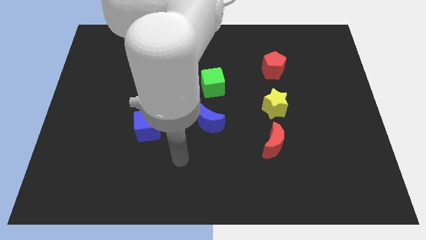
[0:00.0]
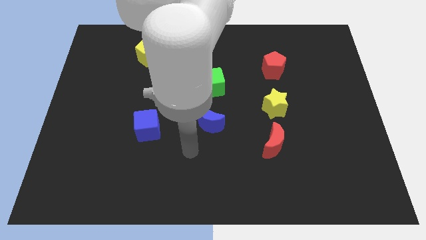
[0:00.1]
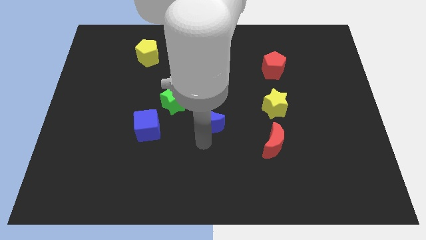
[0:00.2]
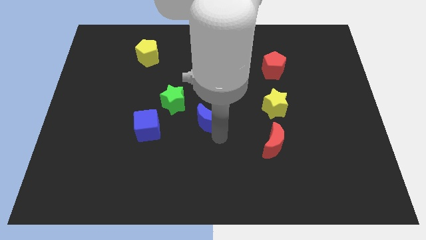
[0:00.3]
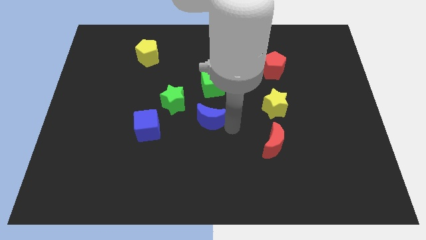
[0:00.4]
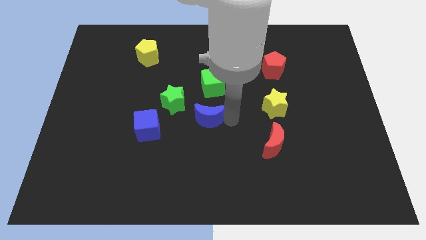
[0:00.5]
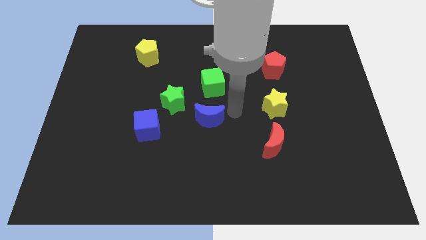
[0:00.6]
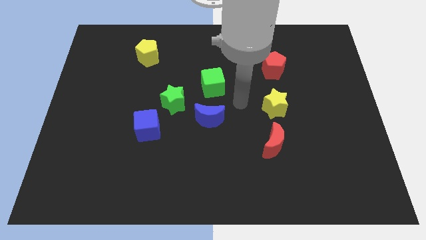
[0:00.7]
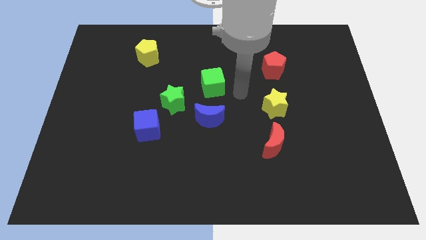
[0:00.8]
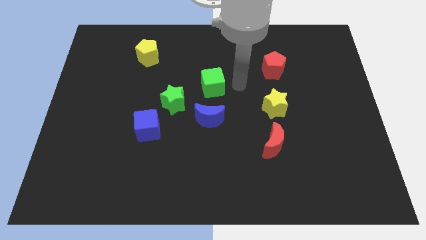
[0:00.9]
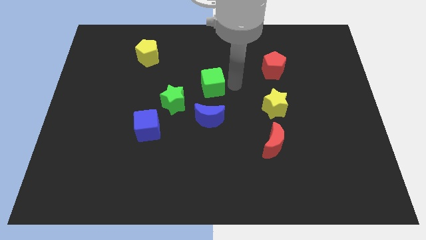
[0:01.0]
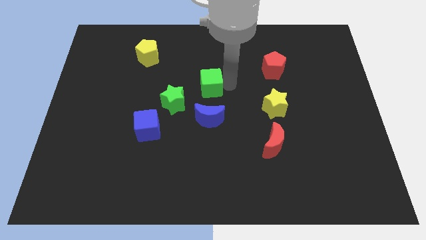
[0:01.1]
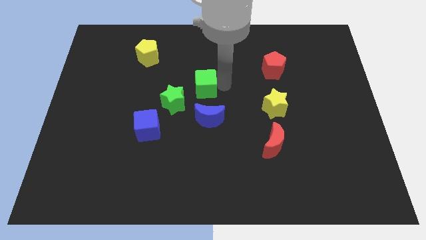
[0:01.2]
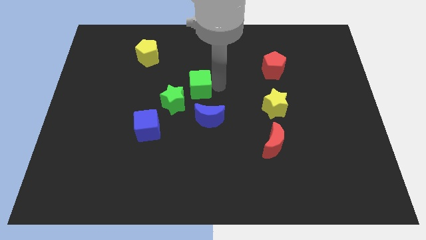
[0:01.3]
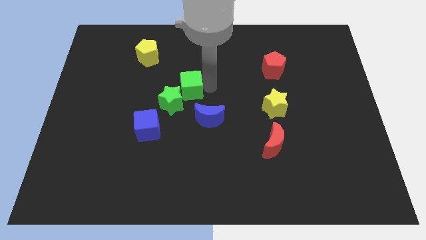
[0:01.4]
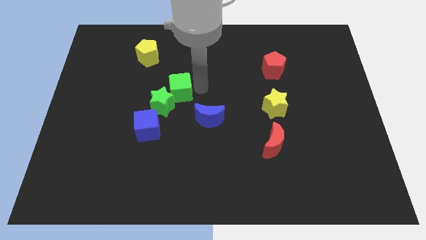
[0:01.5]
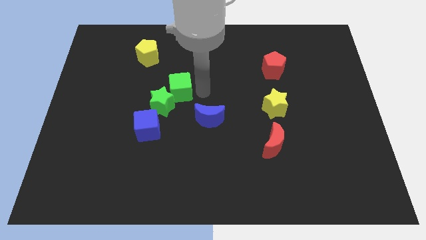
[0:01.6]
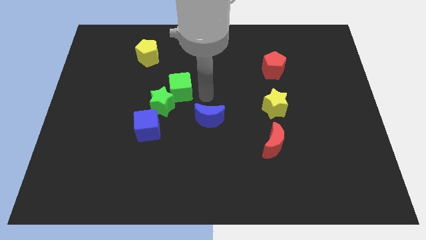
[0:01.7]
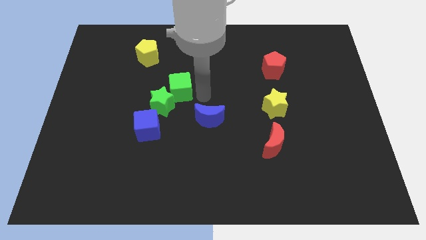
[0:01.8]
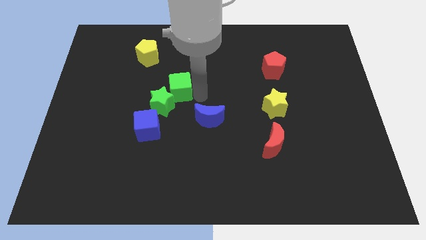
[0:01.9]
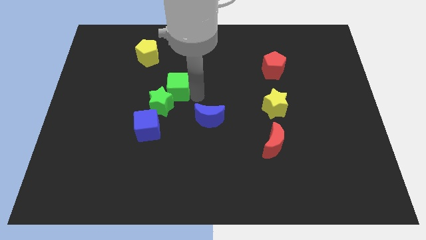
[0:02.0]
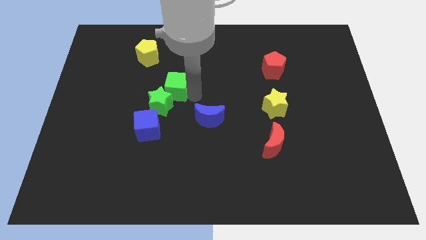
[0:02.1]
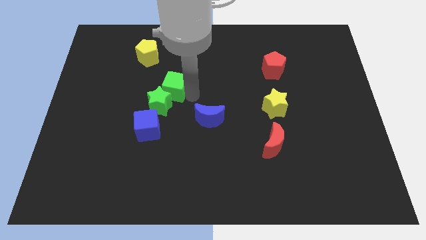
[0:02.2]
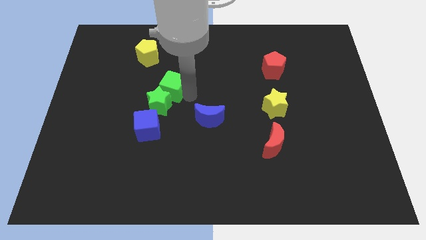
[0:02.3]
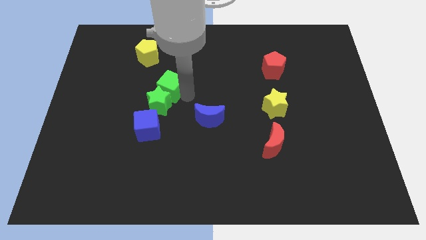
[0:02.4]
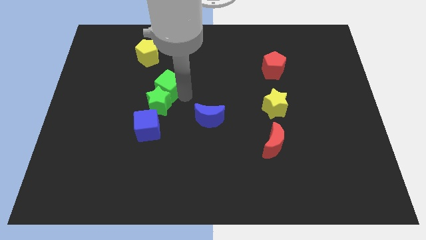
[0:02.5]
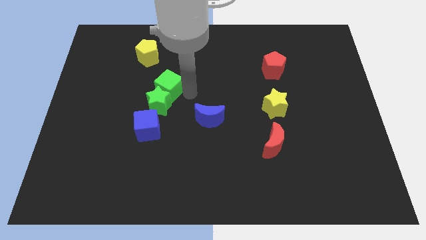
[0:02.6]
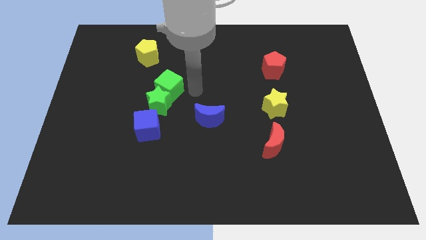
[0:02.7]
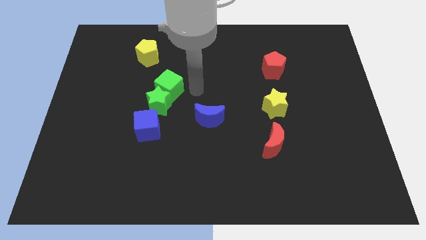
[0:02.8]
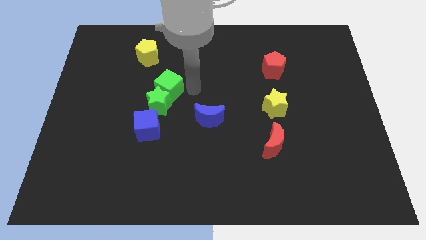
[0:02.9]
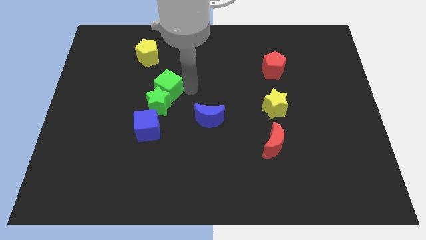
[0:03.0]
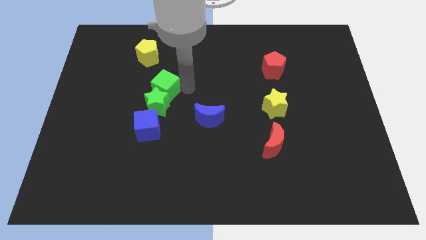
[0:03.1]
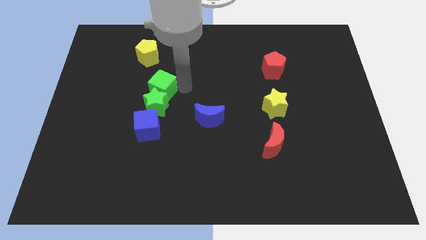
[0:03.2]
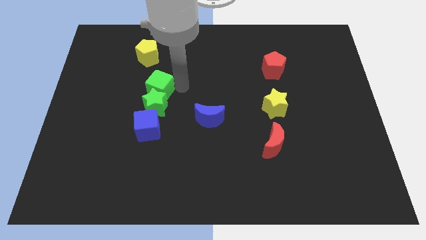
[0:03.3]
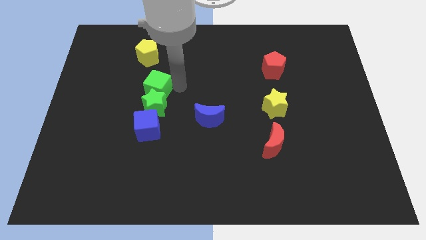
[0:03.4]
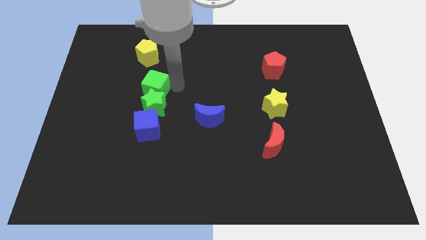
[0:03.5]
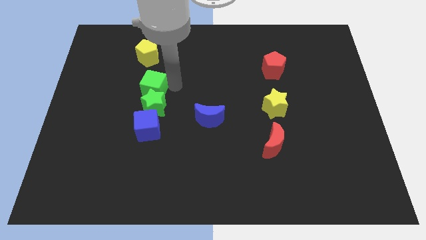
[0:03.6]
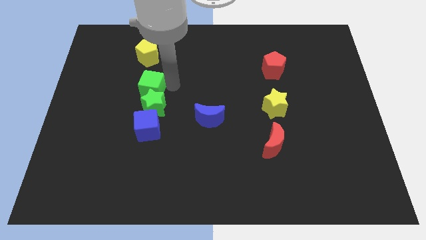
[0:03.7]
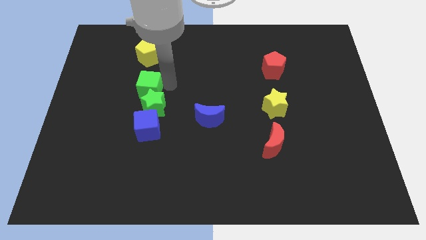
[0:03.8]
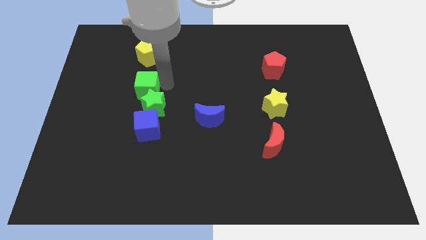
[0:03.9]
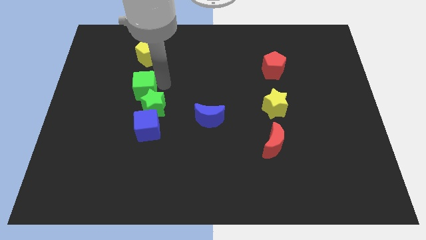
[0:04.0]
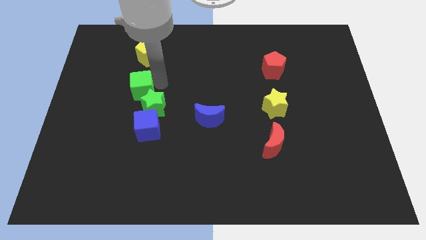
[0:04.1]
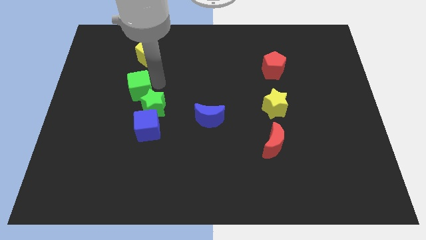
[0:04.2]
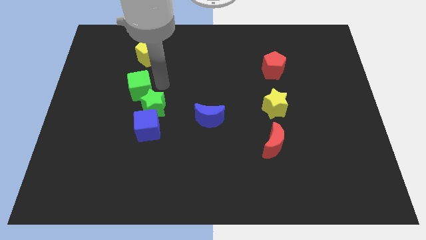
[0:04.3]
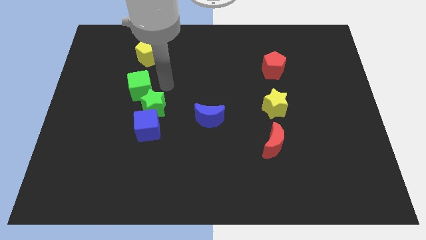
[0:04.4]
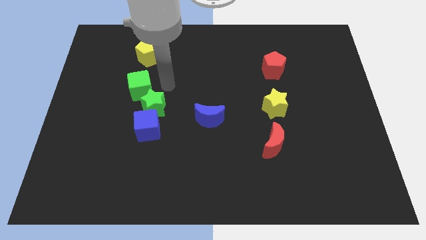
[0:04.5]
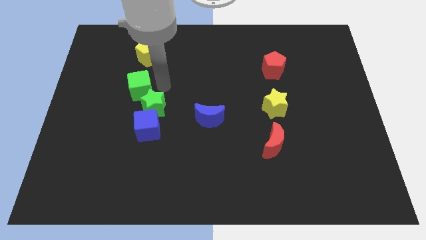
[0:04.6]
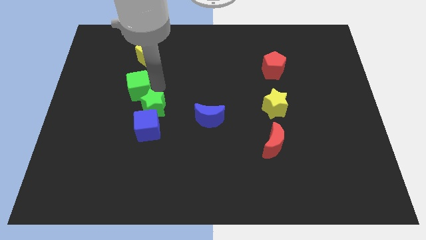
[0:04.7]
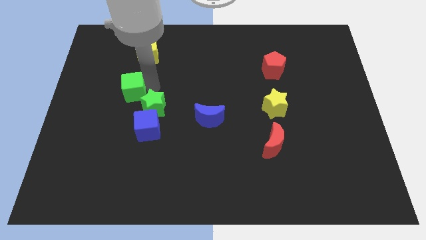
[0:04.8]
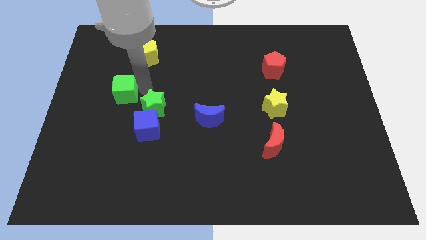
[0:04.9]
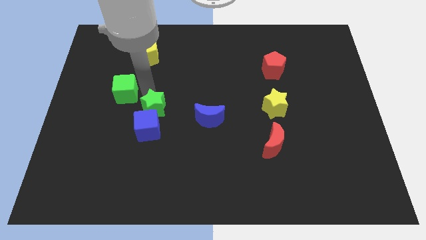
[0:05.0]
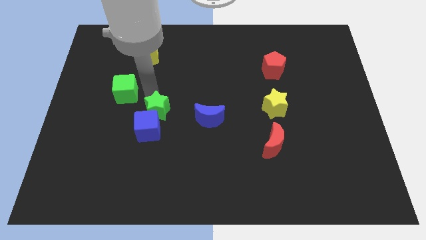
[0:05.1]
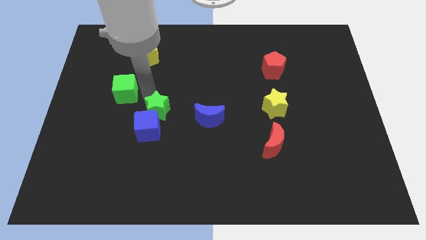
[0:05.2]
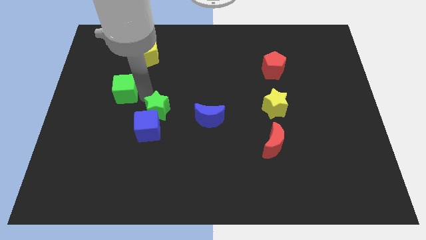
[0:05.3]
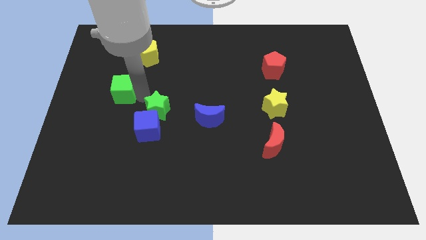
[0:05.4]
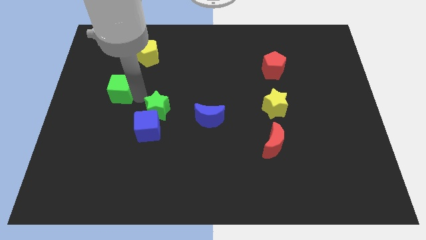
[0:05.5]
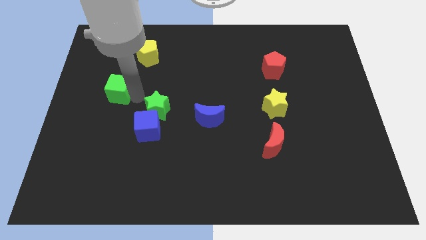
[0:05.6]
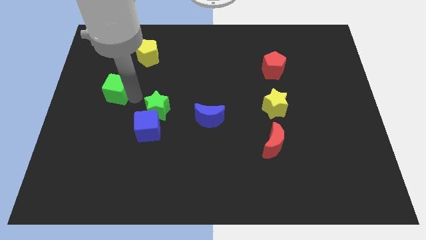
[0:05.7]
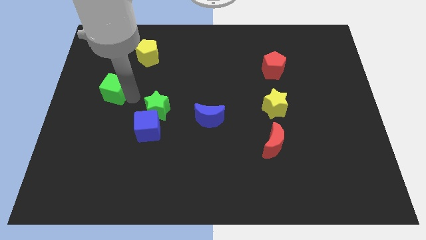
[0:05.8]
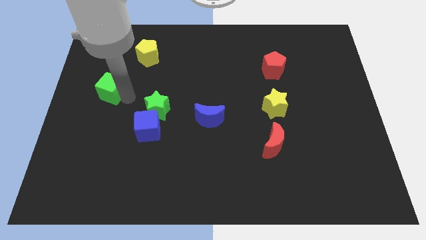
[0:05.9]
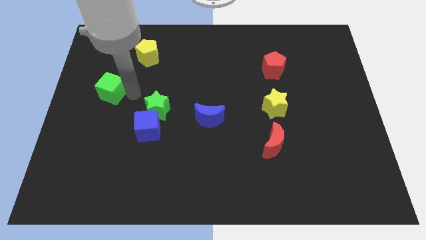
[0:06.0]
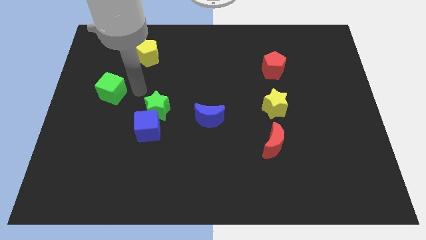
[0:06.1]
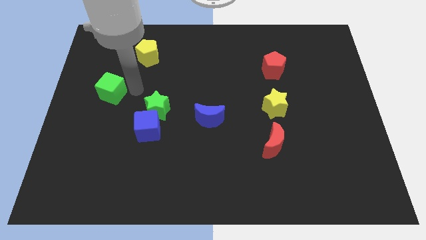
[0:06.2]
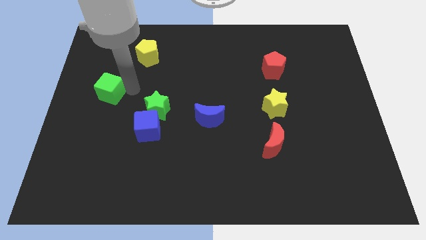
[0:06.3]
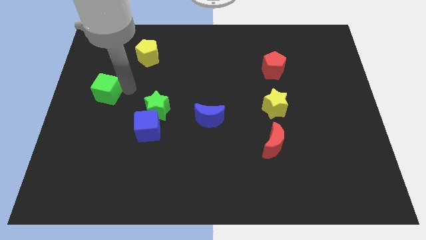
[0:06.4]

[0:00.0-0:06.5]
slide the green cube to the left side

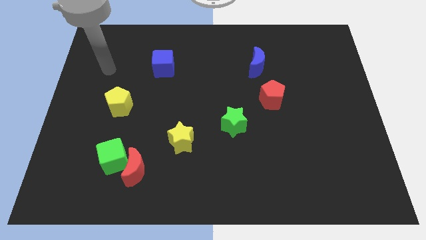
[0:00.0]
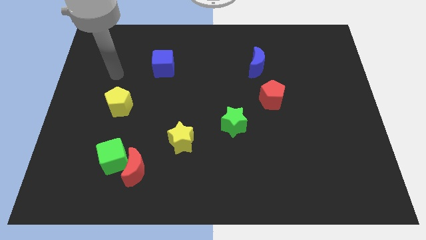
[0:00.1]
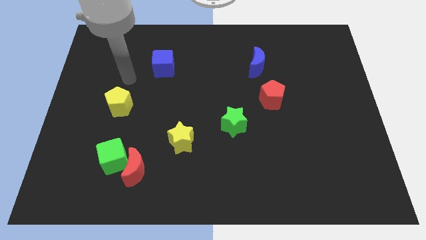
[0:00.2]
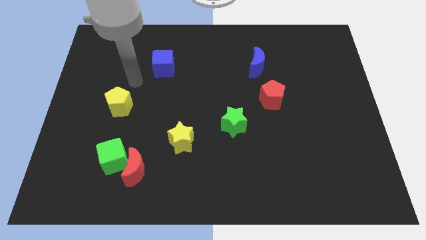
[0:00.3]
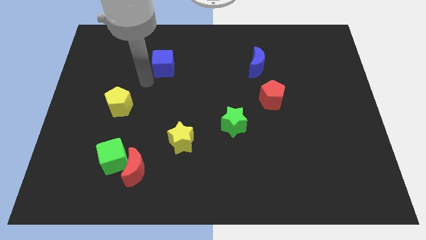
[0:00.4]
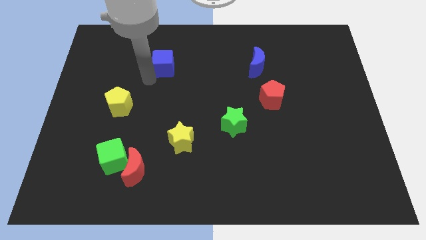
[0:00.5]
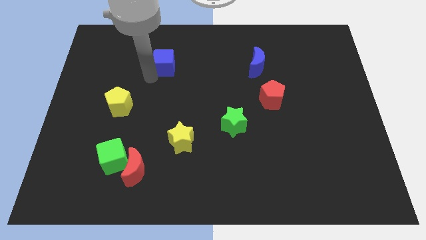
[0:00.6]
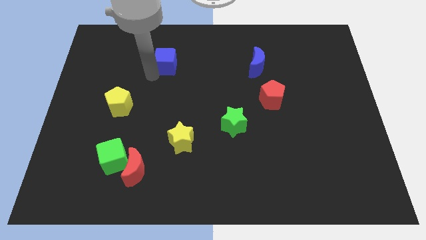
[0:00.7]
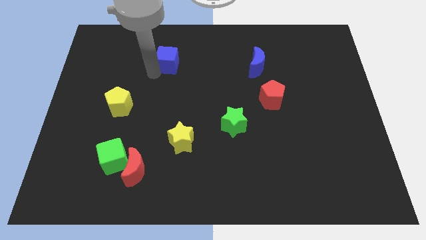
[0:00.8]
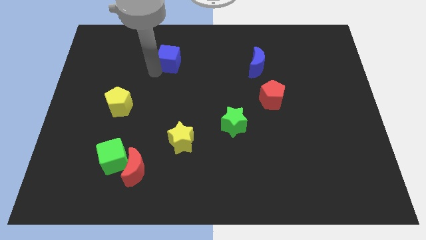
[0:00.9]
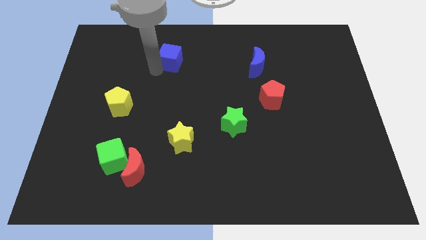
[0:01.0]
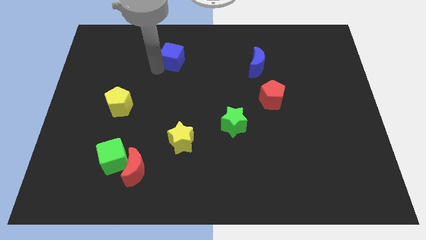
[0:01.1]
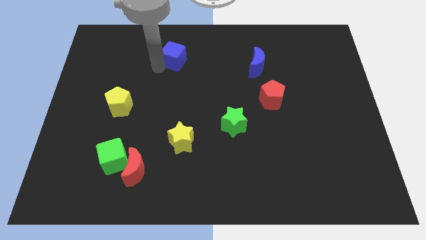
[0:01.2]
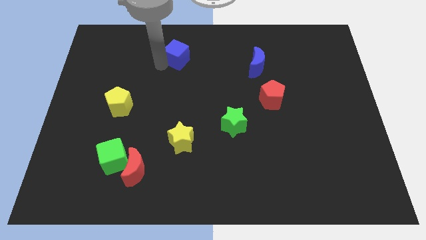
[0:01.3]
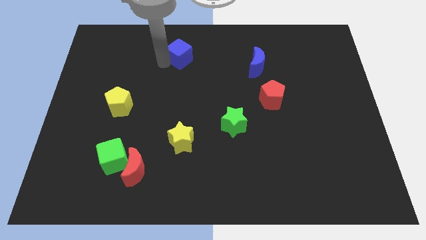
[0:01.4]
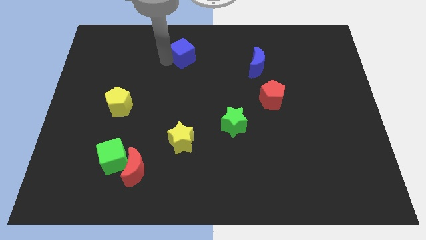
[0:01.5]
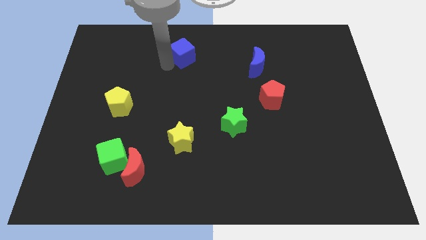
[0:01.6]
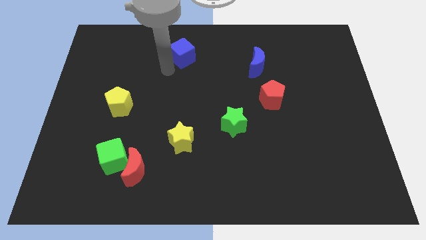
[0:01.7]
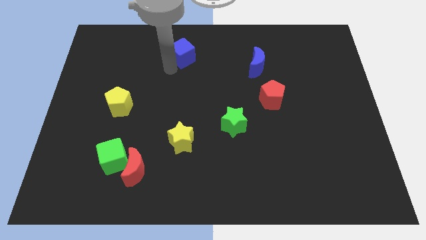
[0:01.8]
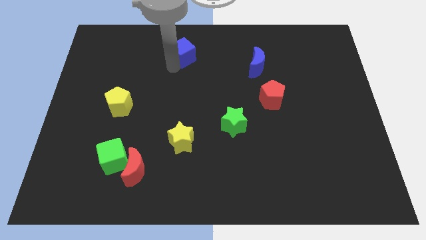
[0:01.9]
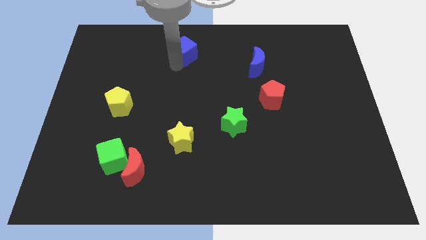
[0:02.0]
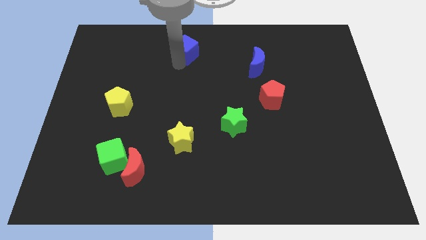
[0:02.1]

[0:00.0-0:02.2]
put the blue cube to the towards your base
